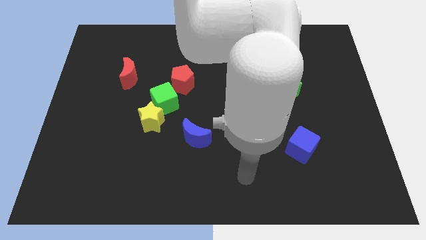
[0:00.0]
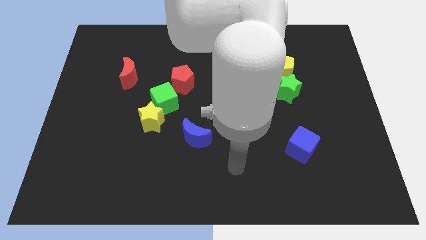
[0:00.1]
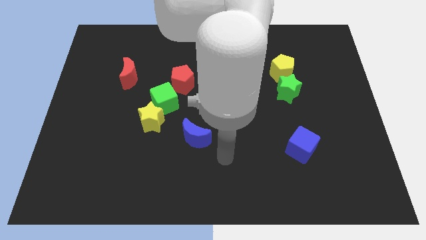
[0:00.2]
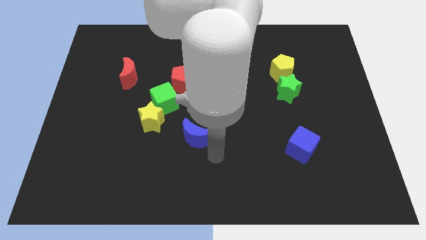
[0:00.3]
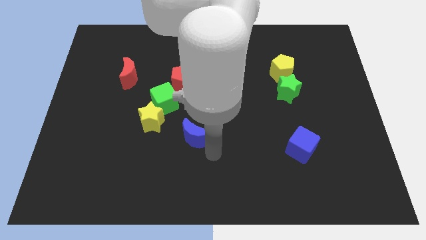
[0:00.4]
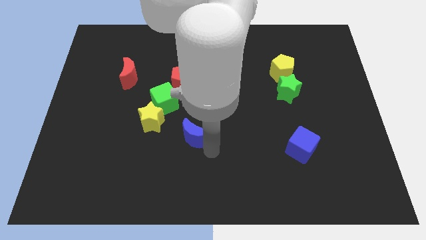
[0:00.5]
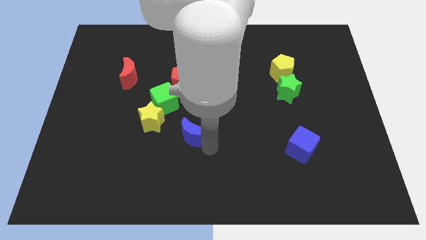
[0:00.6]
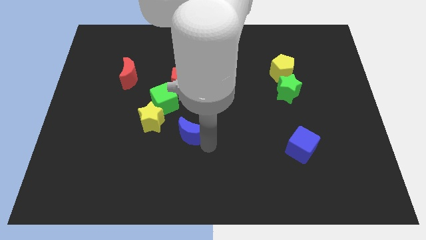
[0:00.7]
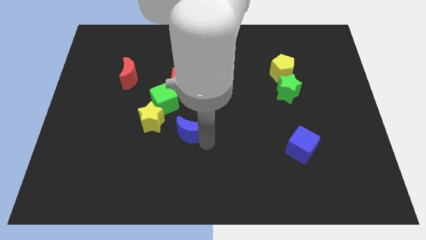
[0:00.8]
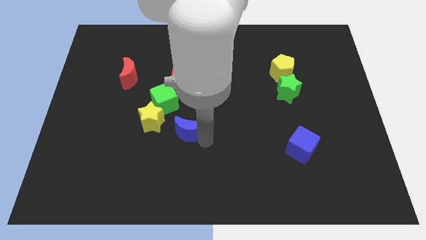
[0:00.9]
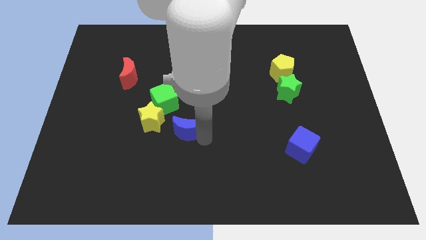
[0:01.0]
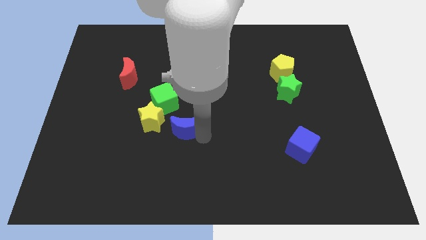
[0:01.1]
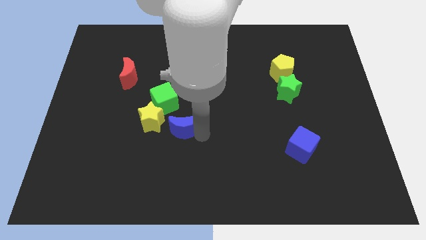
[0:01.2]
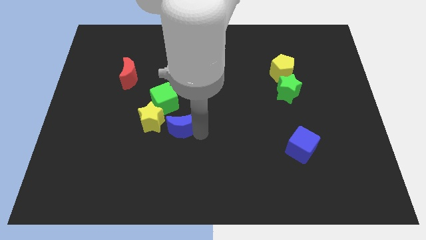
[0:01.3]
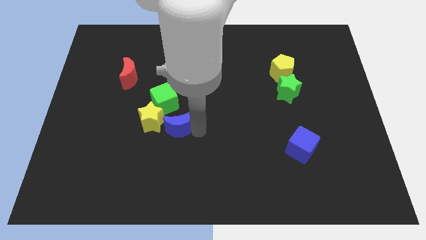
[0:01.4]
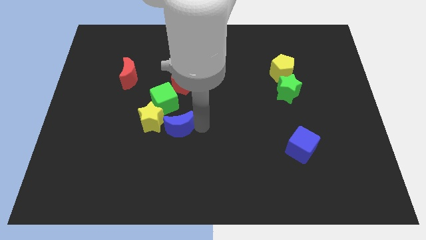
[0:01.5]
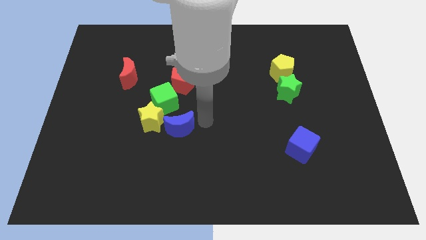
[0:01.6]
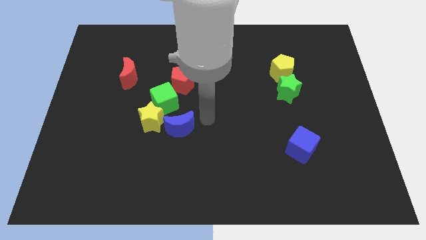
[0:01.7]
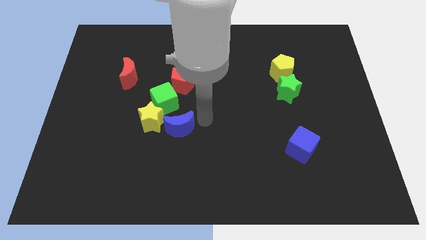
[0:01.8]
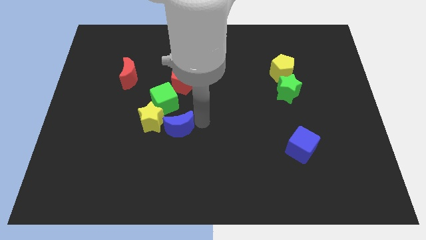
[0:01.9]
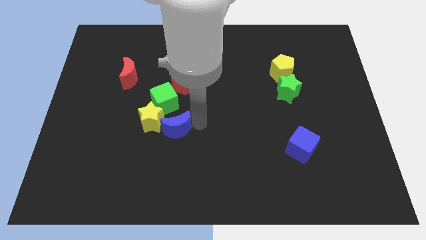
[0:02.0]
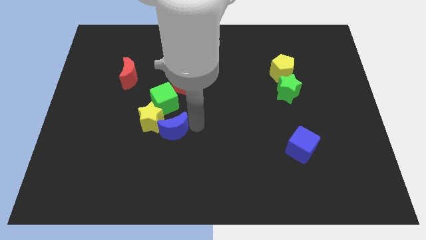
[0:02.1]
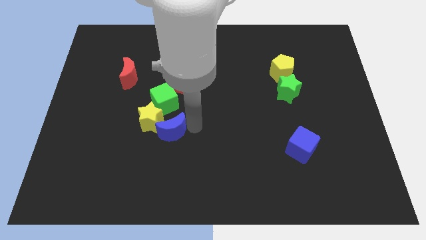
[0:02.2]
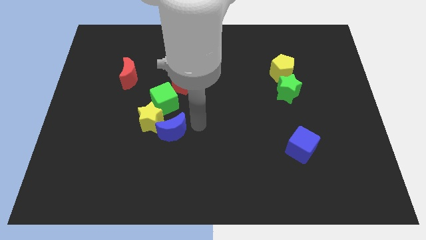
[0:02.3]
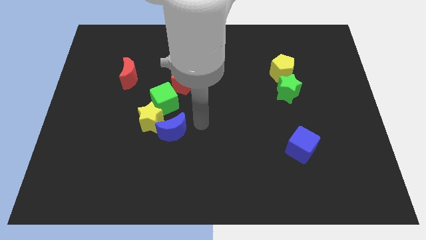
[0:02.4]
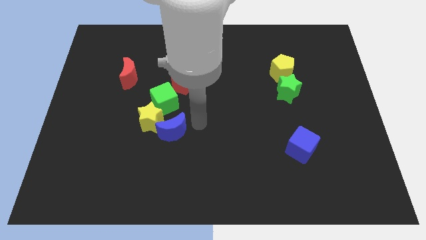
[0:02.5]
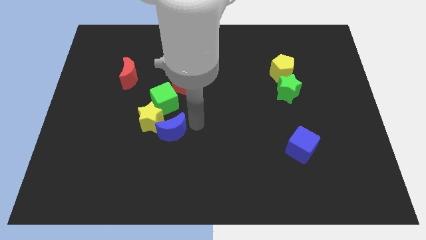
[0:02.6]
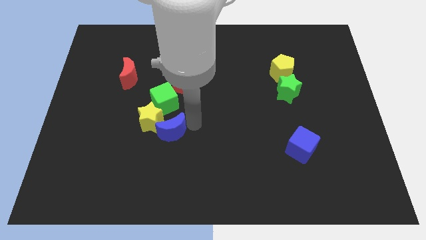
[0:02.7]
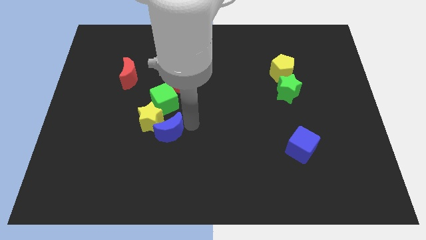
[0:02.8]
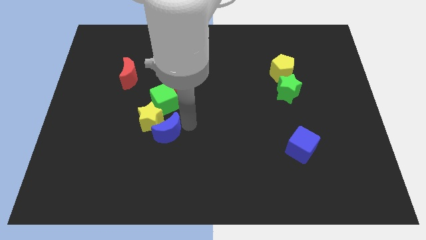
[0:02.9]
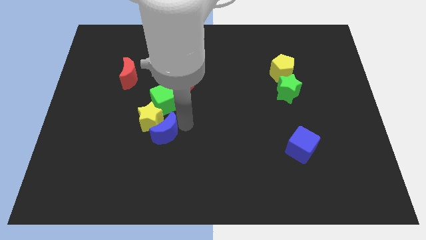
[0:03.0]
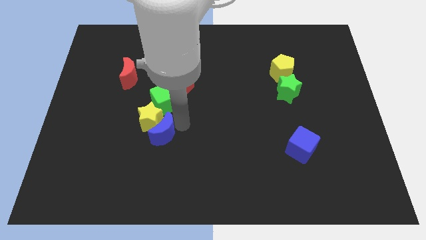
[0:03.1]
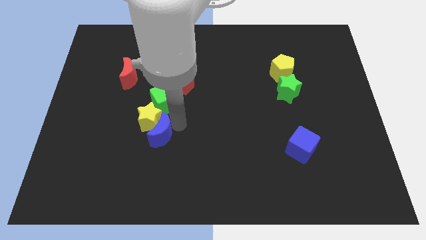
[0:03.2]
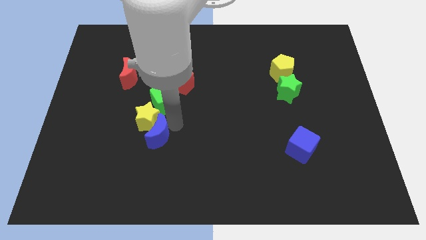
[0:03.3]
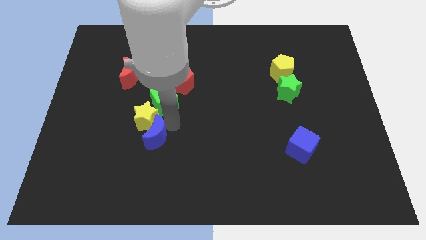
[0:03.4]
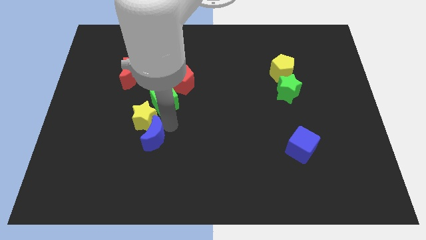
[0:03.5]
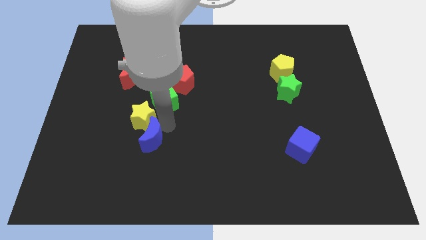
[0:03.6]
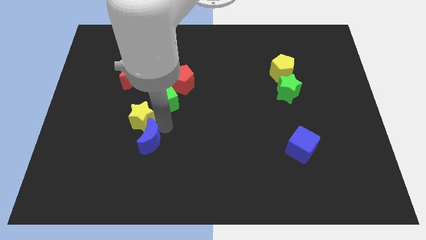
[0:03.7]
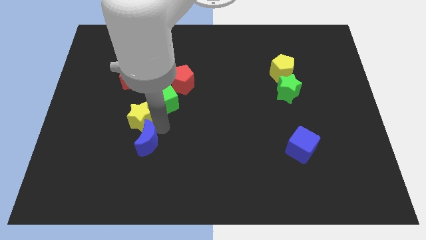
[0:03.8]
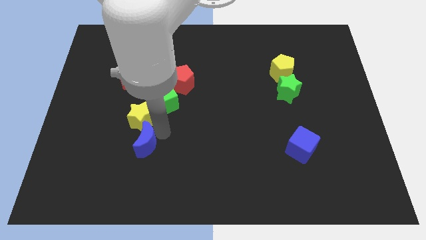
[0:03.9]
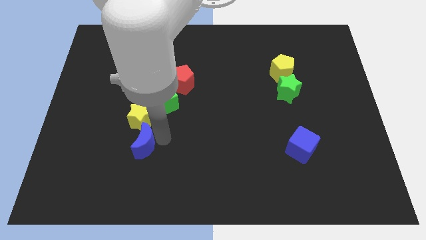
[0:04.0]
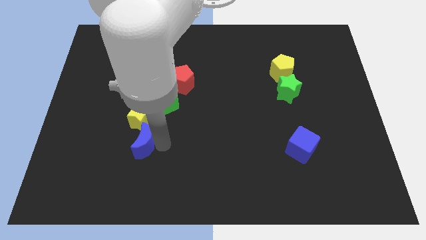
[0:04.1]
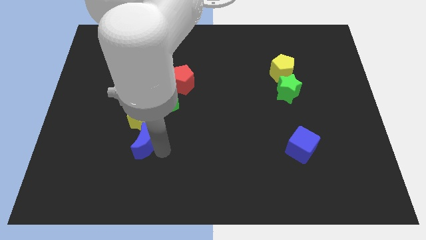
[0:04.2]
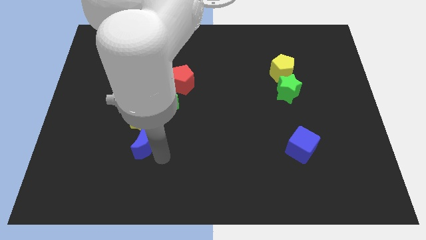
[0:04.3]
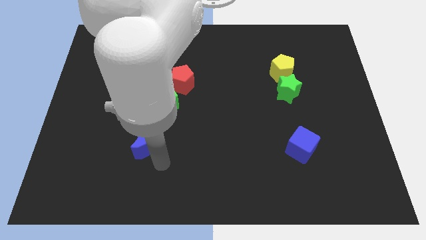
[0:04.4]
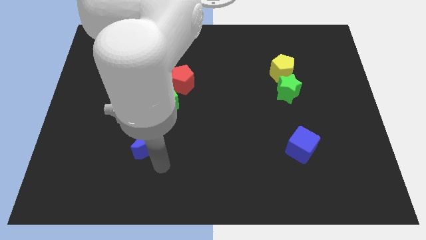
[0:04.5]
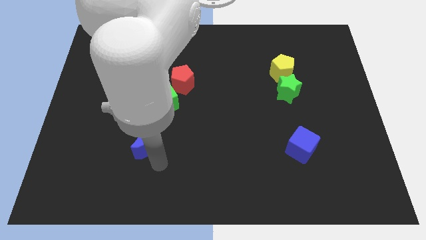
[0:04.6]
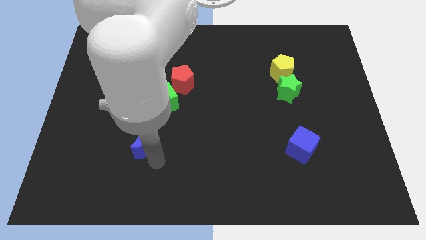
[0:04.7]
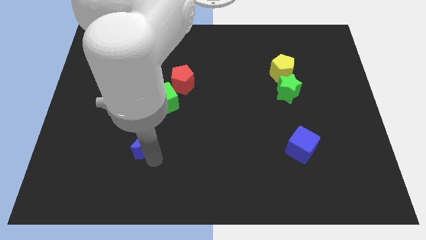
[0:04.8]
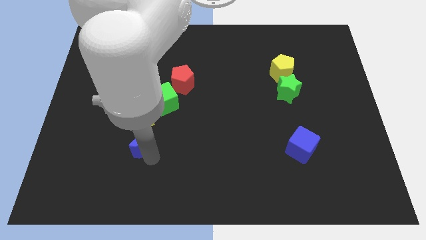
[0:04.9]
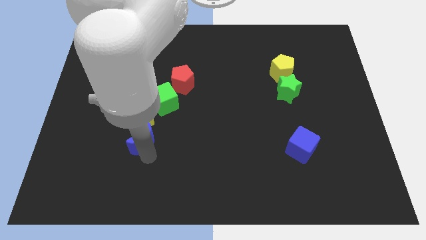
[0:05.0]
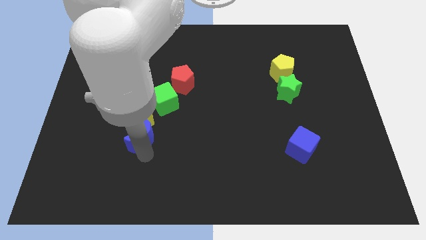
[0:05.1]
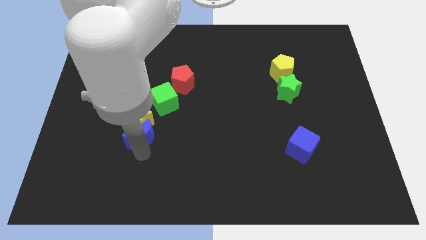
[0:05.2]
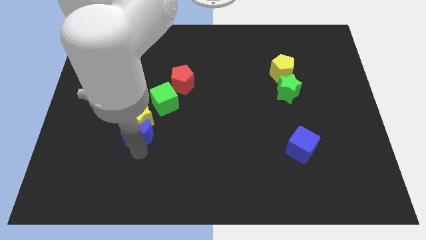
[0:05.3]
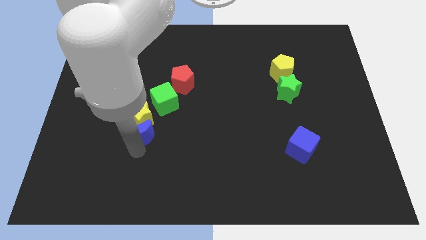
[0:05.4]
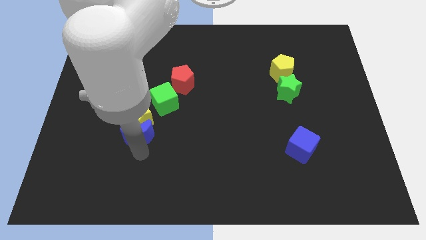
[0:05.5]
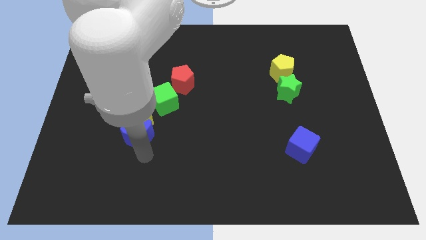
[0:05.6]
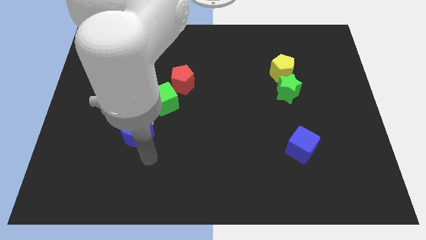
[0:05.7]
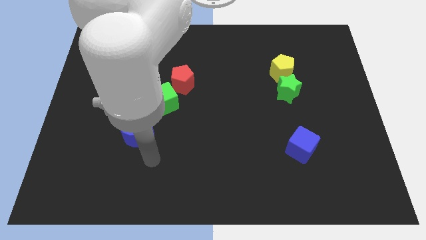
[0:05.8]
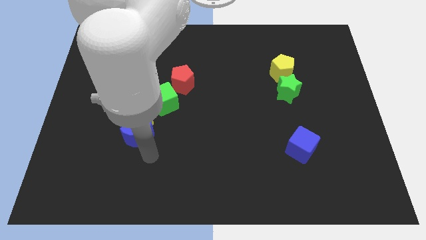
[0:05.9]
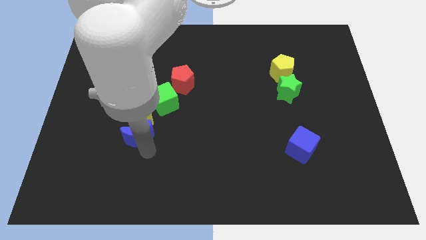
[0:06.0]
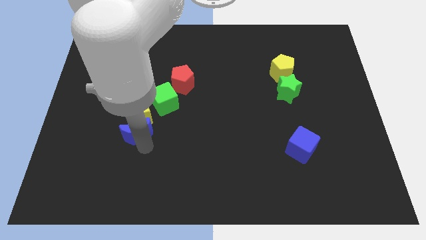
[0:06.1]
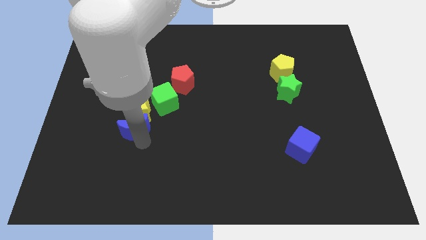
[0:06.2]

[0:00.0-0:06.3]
push the blue moon somewhat upwards and left diagonally

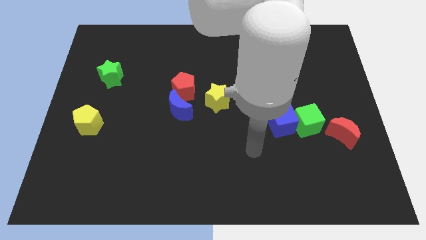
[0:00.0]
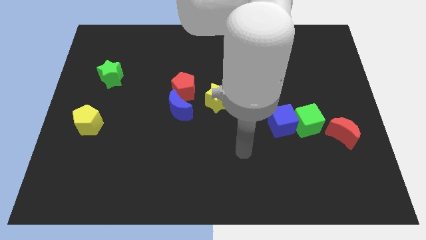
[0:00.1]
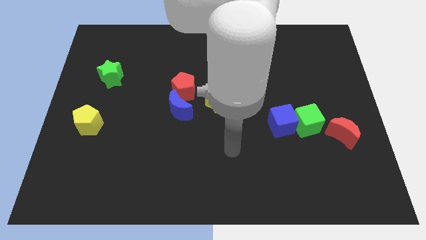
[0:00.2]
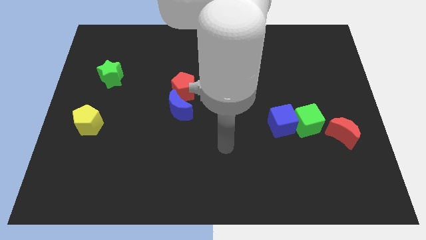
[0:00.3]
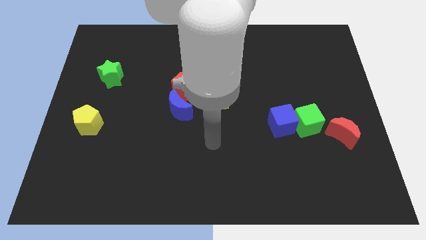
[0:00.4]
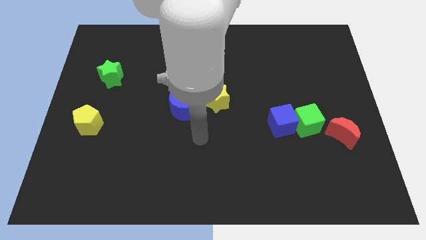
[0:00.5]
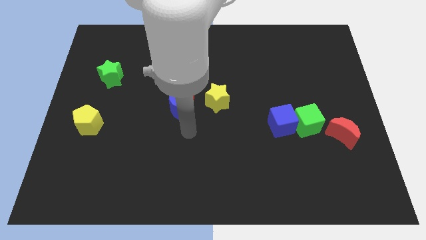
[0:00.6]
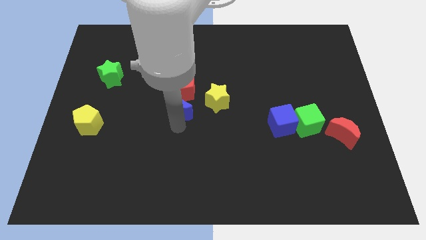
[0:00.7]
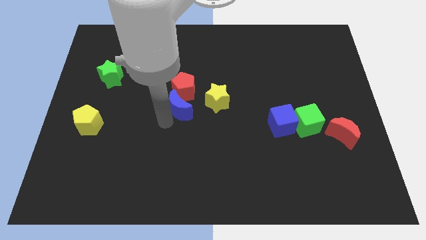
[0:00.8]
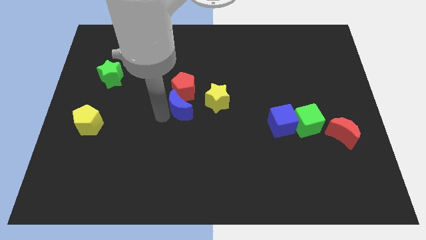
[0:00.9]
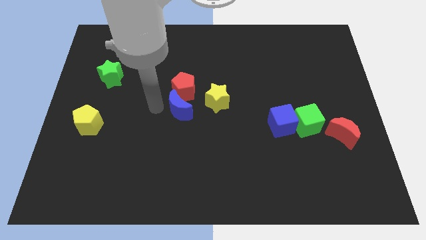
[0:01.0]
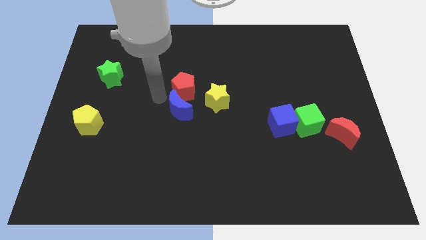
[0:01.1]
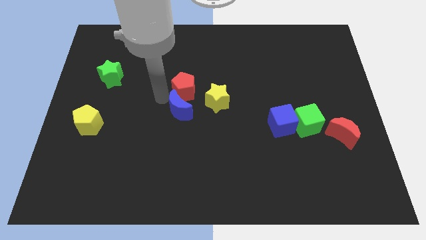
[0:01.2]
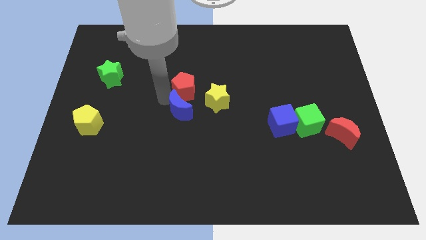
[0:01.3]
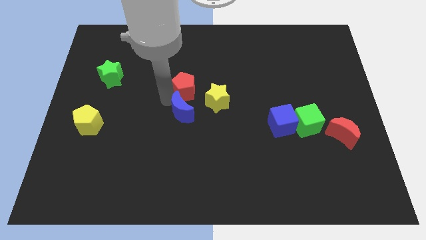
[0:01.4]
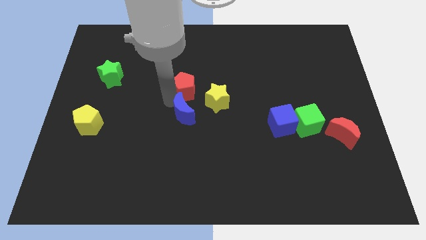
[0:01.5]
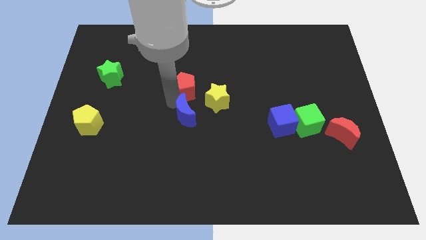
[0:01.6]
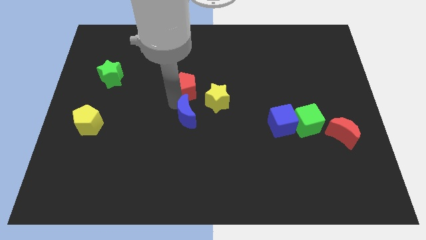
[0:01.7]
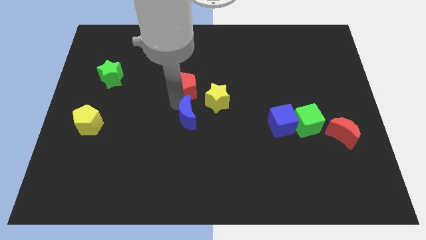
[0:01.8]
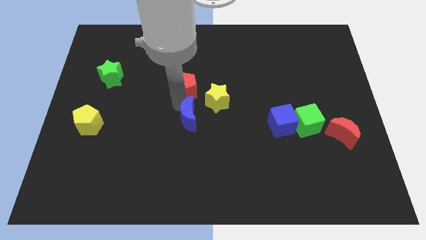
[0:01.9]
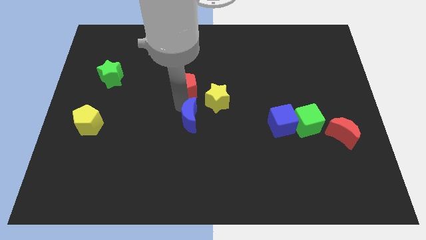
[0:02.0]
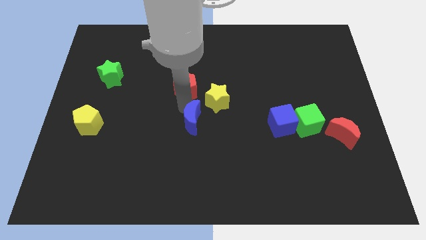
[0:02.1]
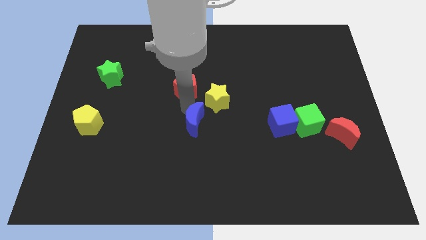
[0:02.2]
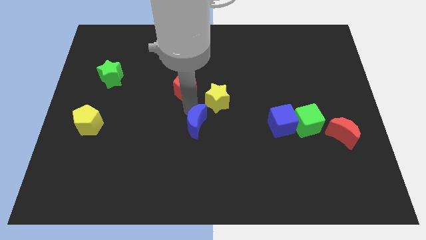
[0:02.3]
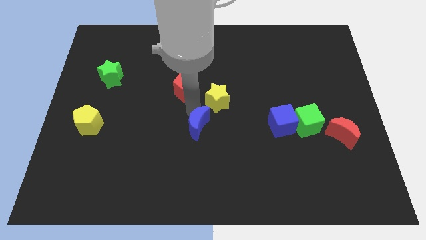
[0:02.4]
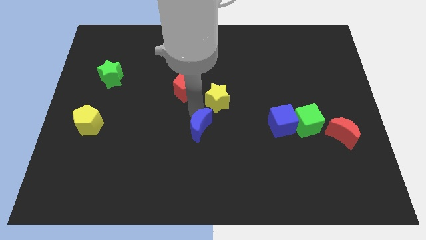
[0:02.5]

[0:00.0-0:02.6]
slightly slide the blue moon diagonally downwards and right
